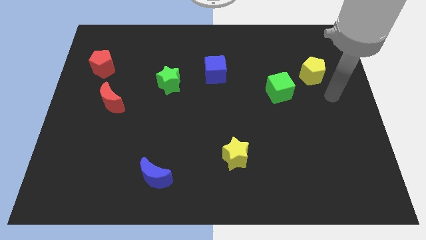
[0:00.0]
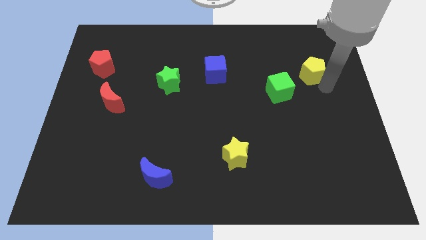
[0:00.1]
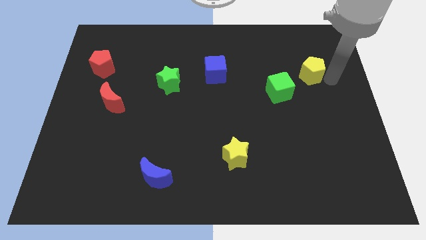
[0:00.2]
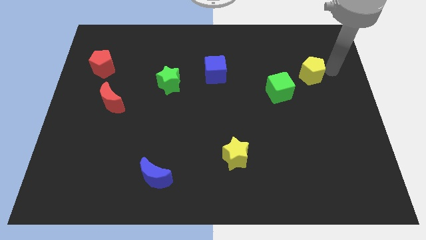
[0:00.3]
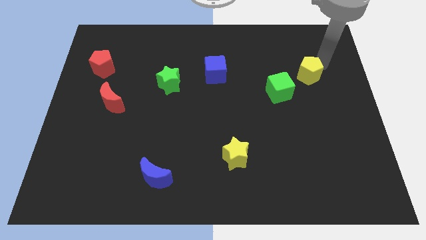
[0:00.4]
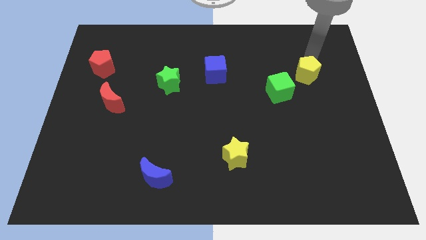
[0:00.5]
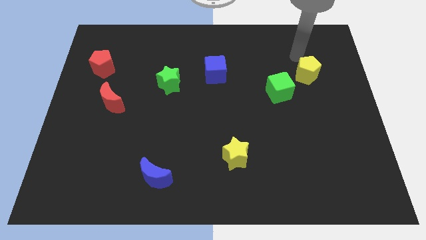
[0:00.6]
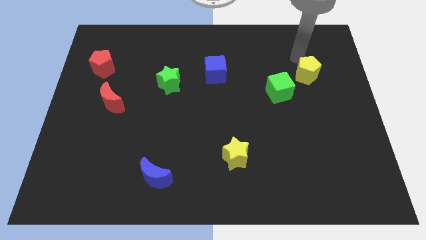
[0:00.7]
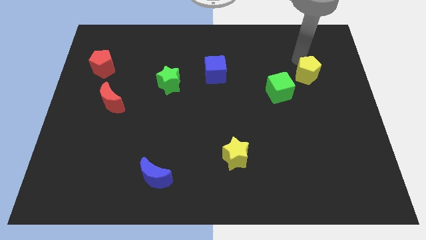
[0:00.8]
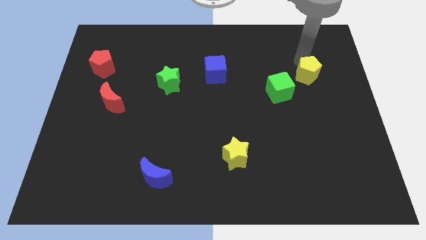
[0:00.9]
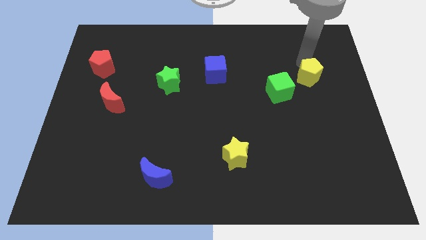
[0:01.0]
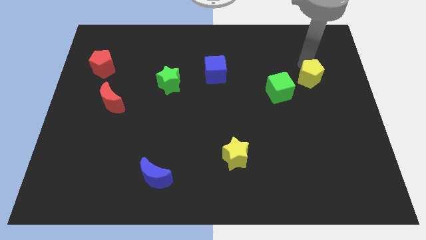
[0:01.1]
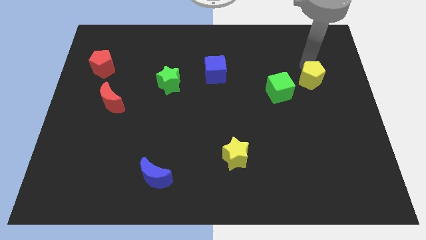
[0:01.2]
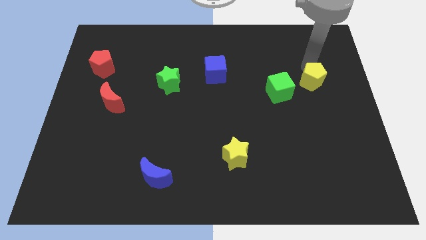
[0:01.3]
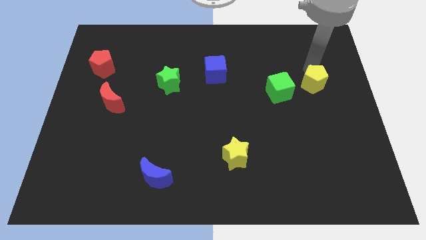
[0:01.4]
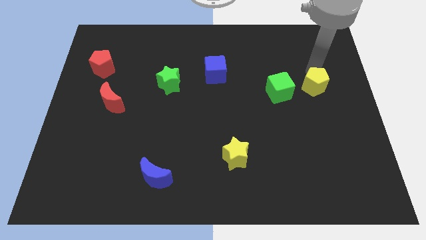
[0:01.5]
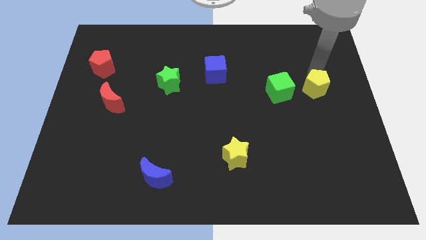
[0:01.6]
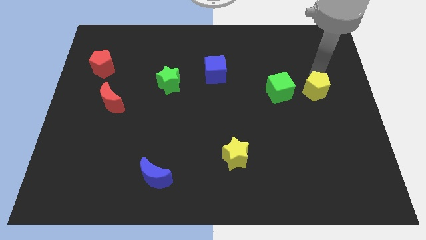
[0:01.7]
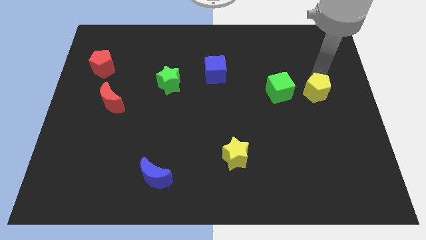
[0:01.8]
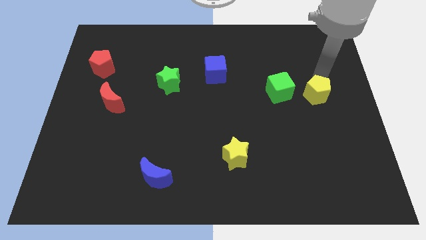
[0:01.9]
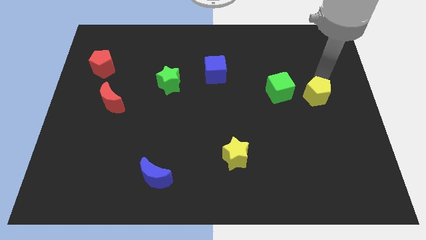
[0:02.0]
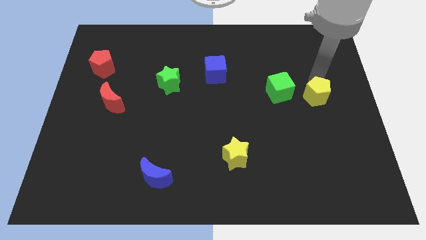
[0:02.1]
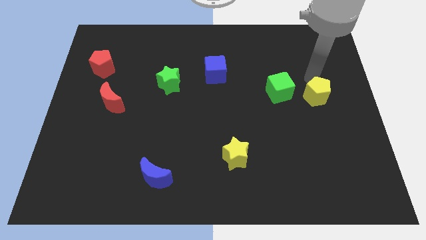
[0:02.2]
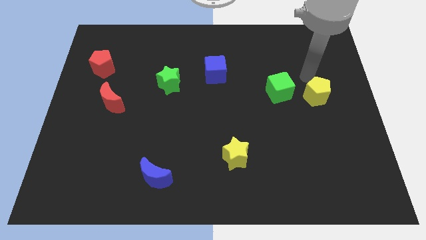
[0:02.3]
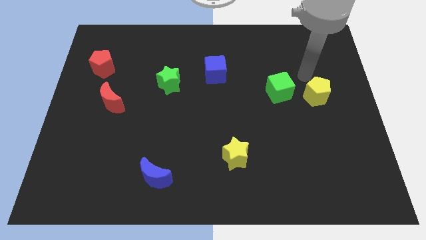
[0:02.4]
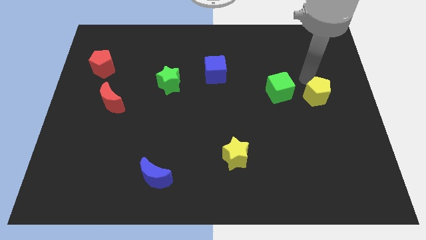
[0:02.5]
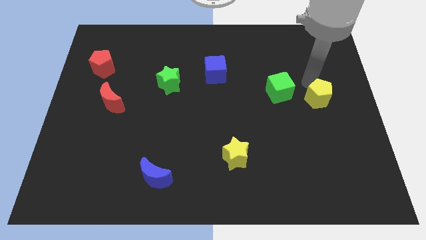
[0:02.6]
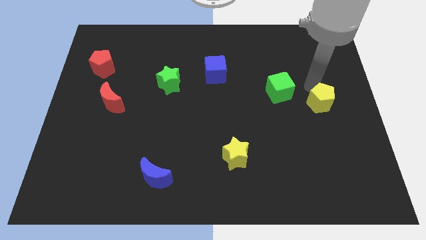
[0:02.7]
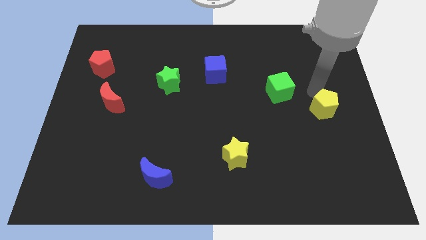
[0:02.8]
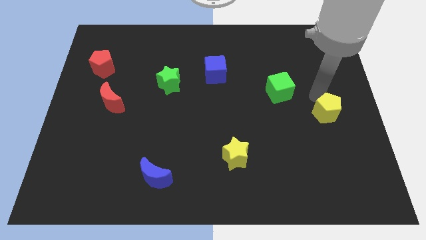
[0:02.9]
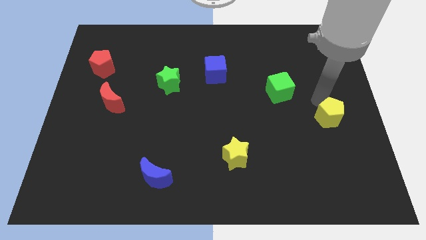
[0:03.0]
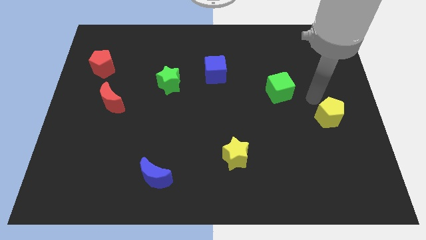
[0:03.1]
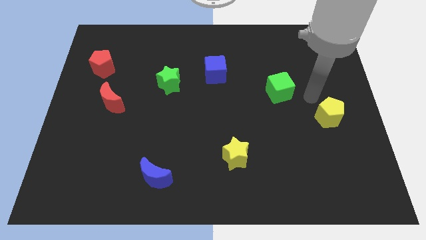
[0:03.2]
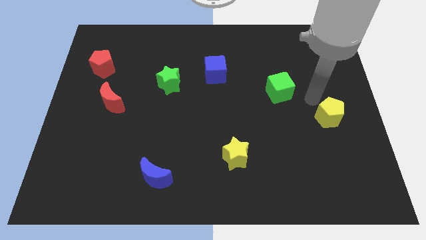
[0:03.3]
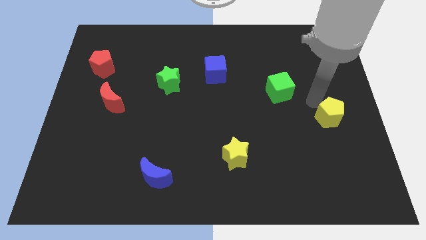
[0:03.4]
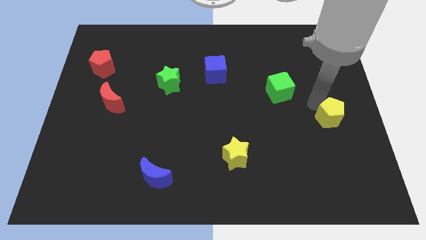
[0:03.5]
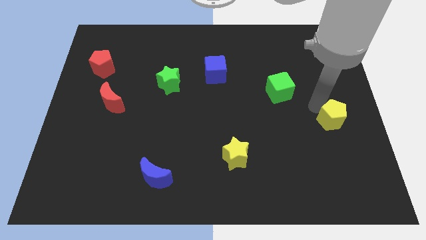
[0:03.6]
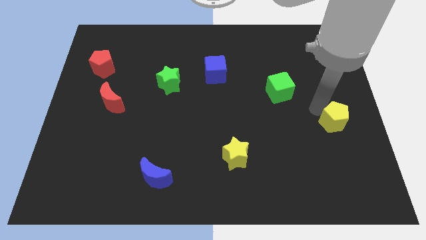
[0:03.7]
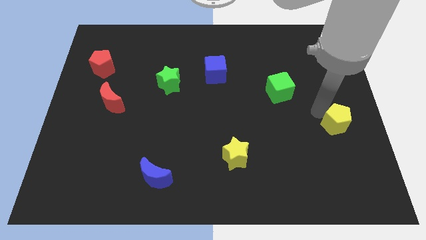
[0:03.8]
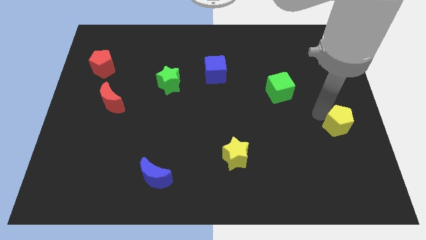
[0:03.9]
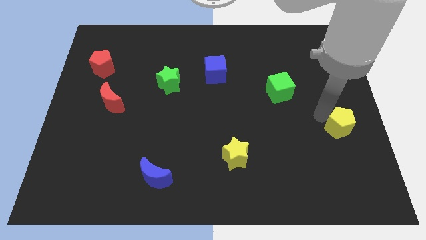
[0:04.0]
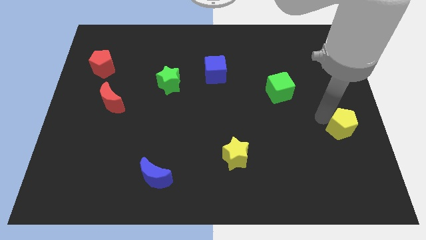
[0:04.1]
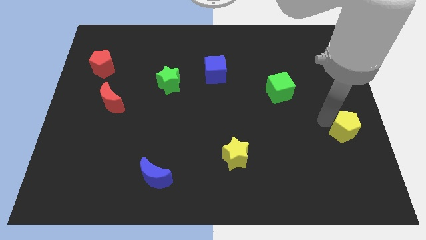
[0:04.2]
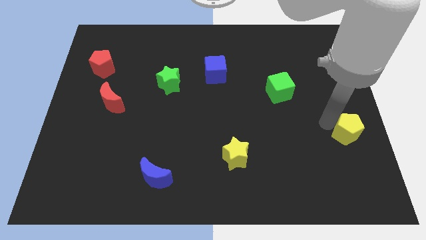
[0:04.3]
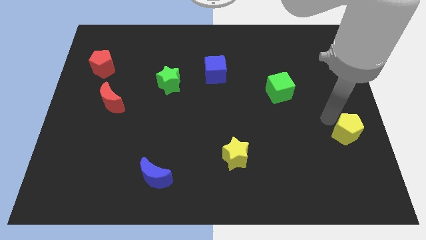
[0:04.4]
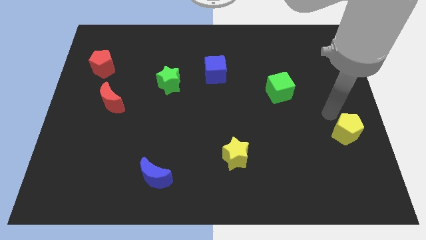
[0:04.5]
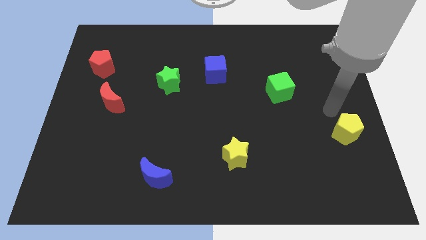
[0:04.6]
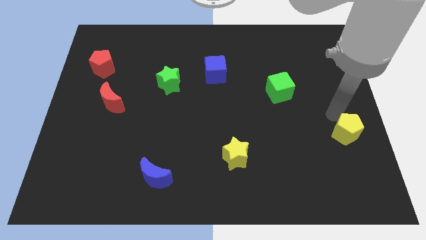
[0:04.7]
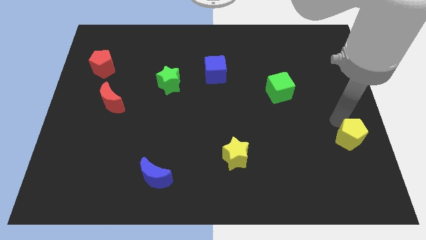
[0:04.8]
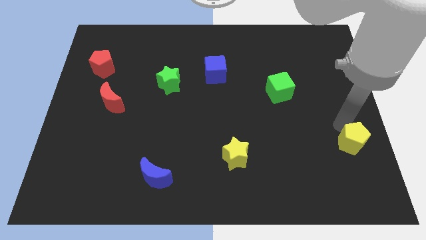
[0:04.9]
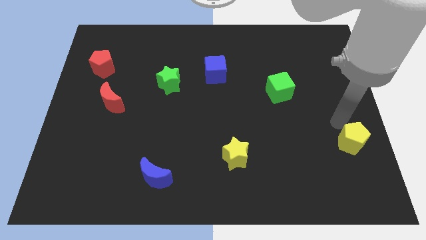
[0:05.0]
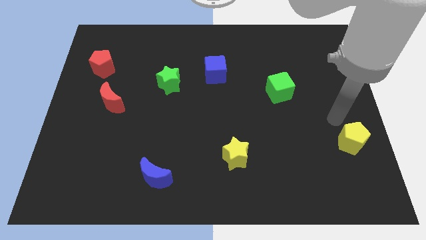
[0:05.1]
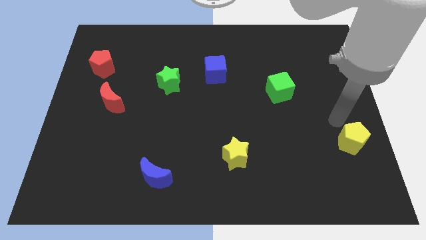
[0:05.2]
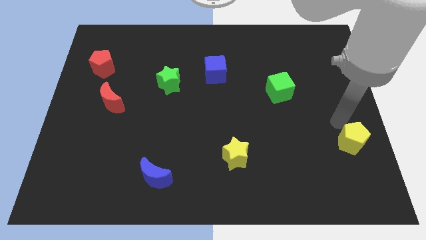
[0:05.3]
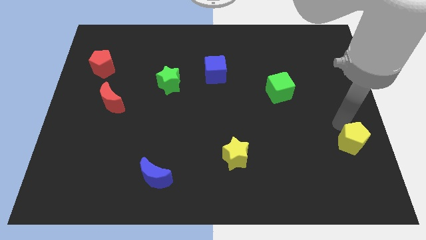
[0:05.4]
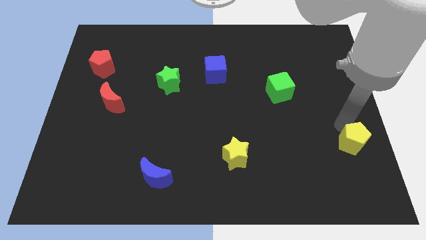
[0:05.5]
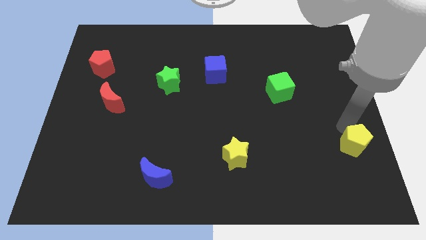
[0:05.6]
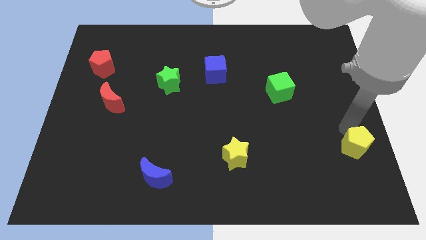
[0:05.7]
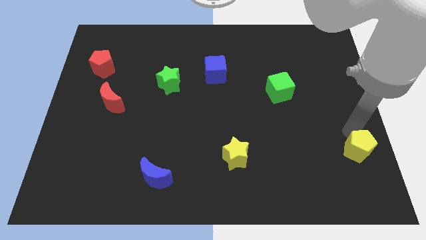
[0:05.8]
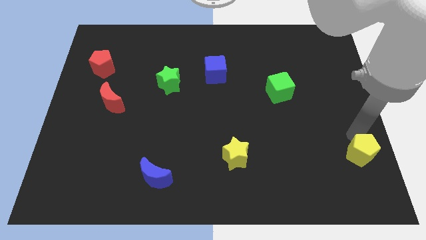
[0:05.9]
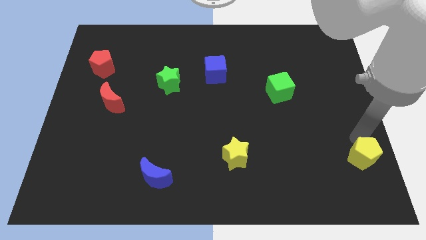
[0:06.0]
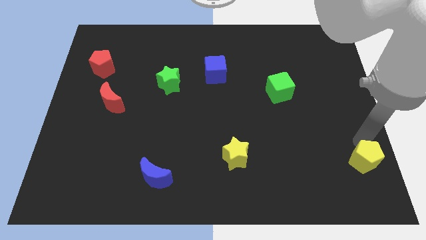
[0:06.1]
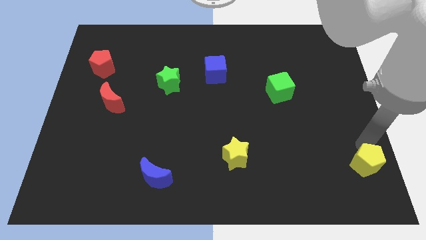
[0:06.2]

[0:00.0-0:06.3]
slide the yellow pentagon to the lower right corner

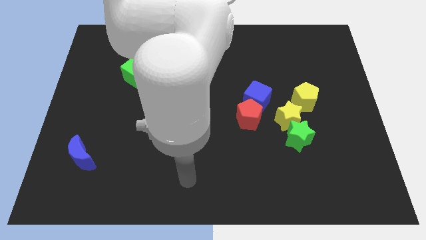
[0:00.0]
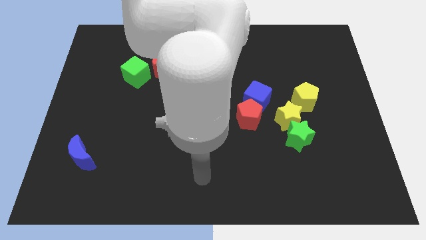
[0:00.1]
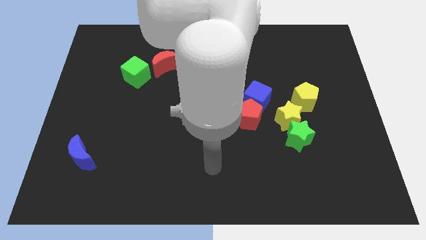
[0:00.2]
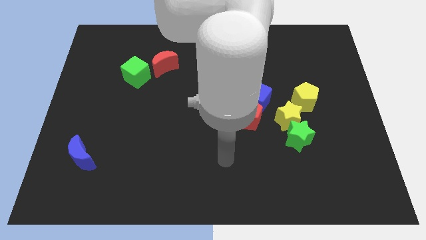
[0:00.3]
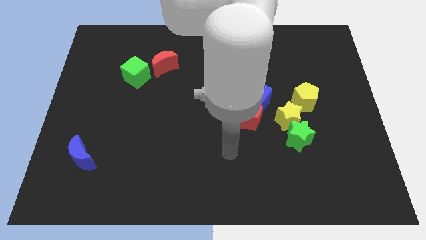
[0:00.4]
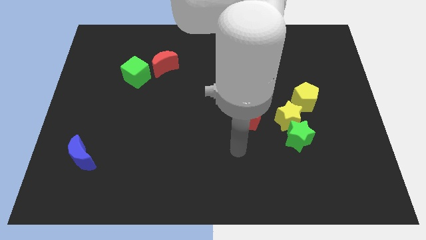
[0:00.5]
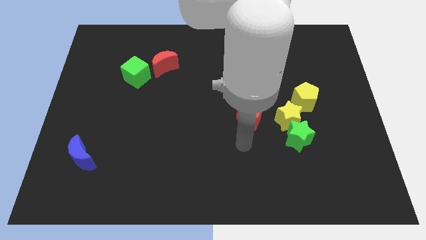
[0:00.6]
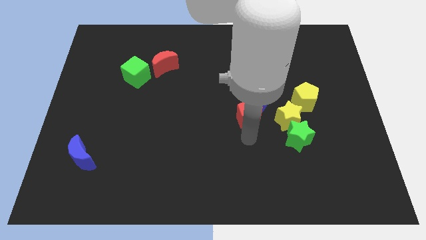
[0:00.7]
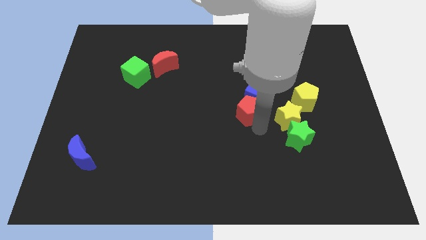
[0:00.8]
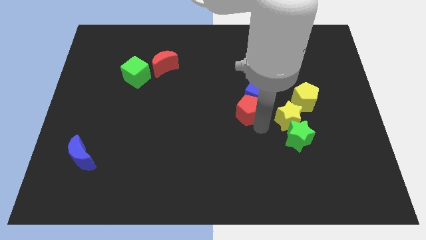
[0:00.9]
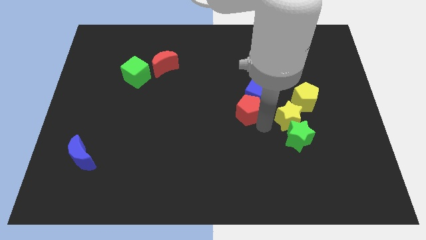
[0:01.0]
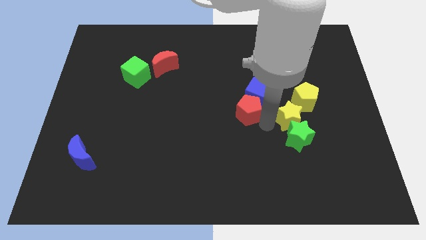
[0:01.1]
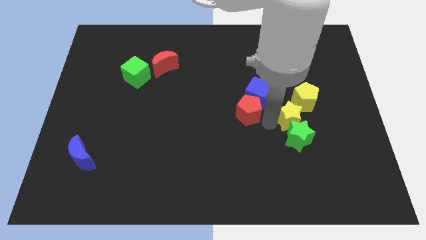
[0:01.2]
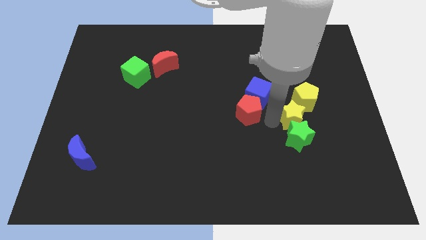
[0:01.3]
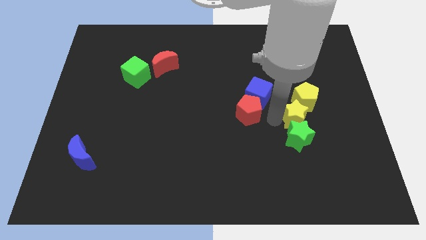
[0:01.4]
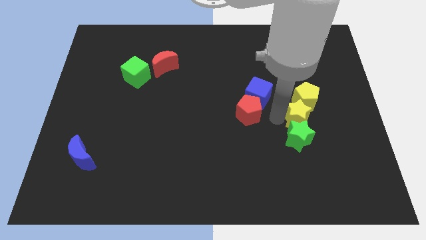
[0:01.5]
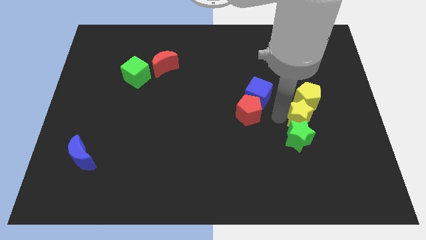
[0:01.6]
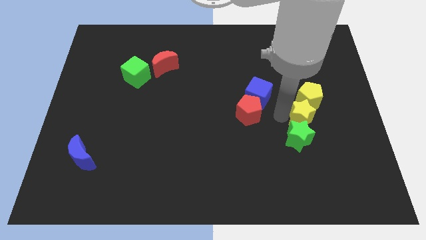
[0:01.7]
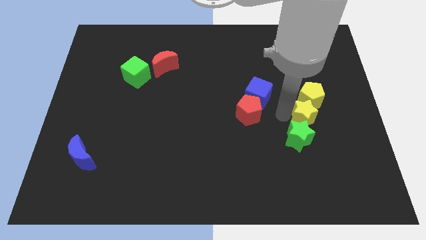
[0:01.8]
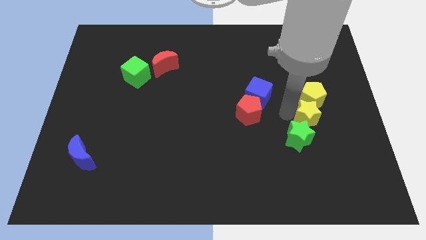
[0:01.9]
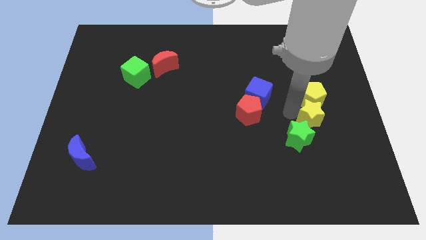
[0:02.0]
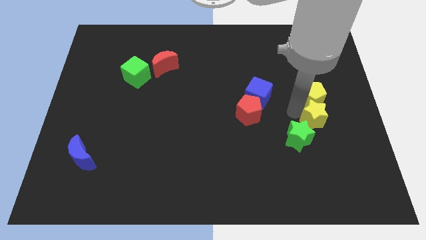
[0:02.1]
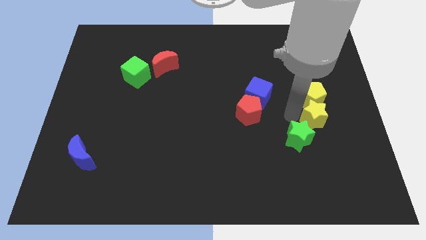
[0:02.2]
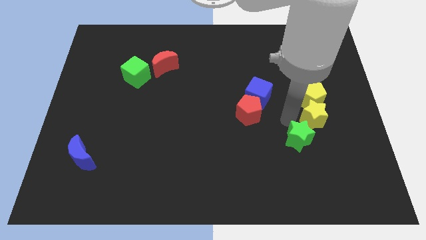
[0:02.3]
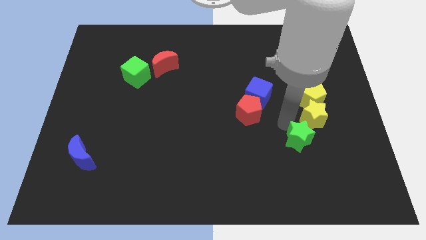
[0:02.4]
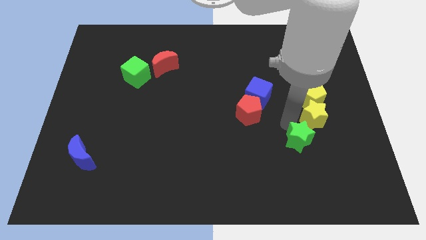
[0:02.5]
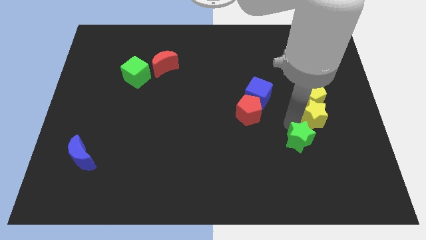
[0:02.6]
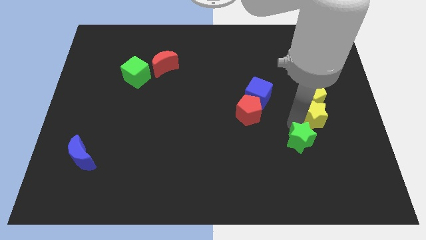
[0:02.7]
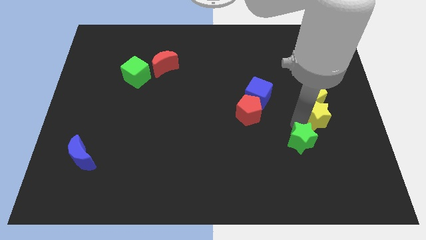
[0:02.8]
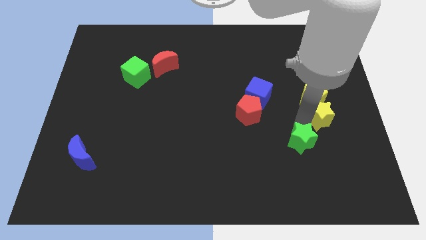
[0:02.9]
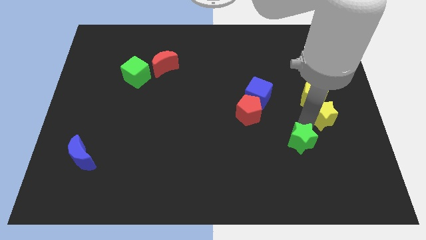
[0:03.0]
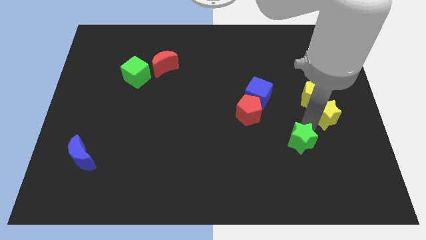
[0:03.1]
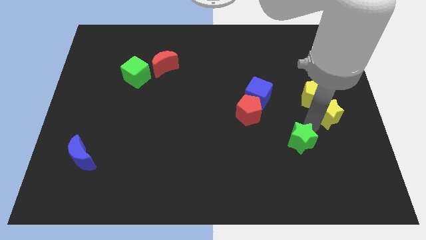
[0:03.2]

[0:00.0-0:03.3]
slide the yellow star to the right side of the board
